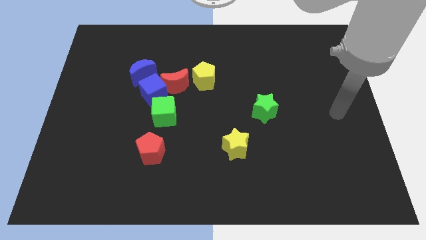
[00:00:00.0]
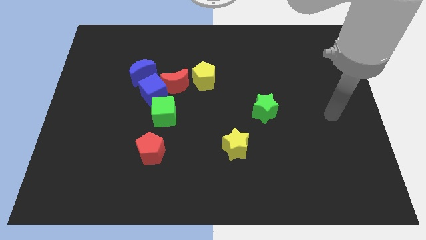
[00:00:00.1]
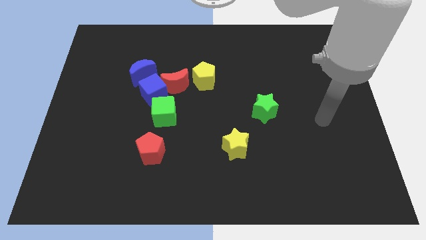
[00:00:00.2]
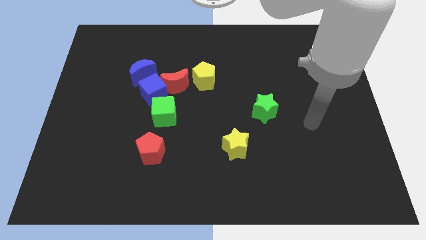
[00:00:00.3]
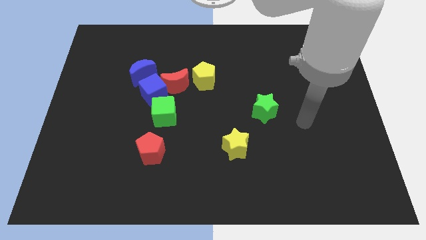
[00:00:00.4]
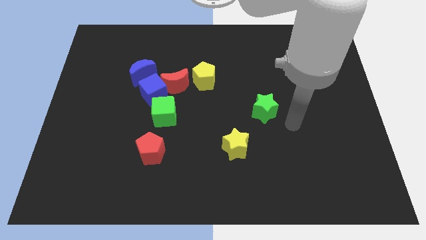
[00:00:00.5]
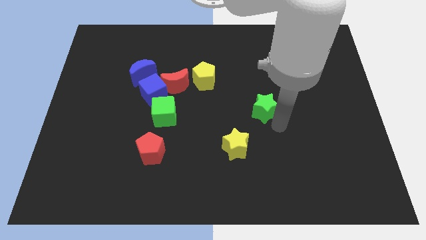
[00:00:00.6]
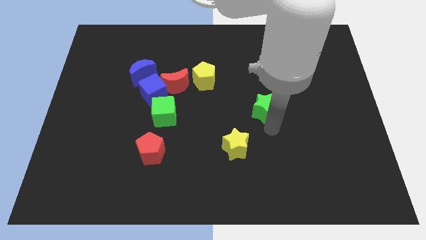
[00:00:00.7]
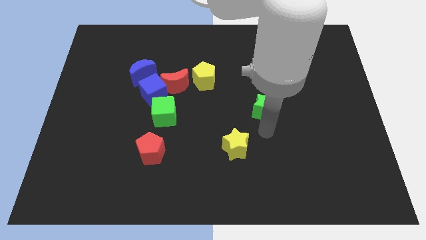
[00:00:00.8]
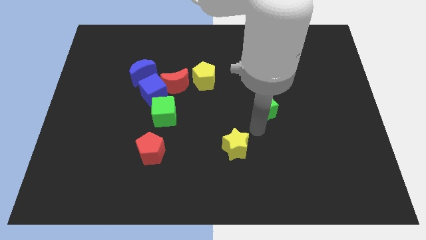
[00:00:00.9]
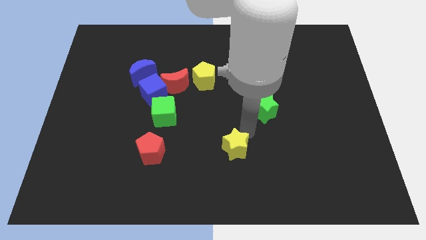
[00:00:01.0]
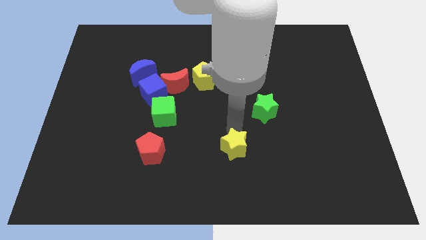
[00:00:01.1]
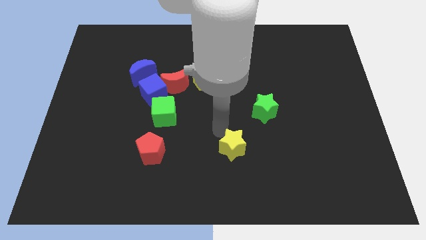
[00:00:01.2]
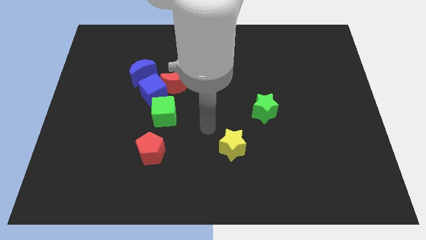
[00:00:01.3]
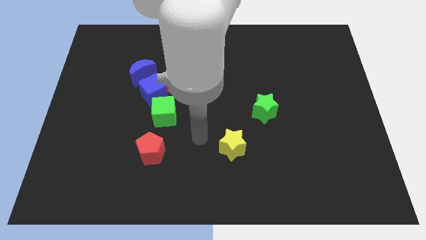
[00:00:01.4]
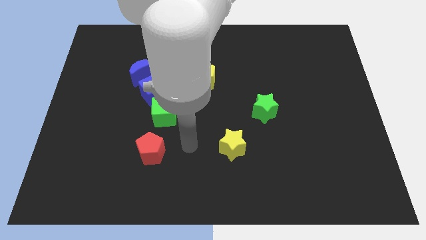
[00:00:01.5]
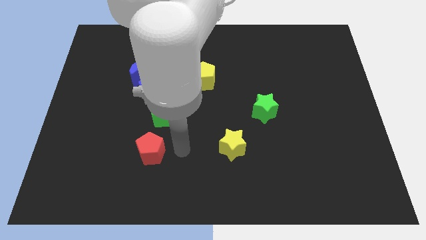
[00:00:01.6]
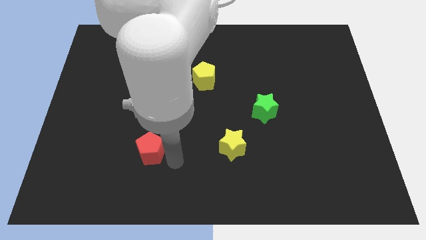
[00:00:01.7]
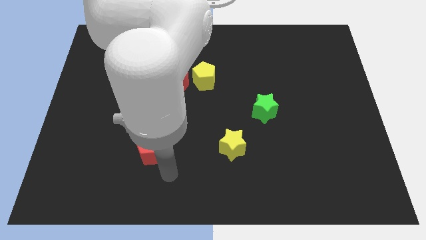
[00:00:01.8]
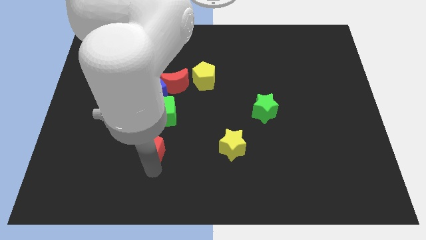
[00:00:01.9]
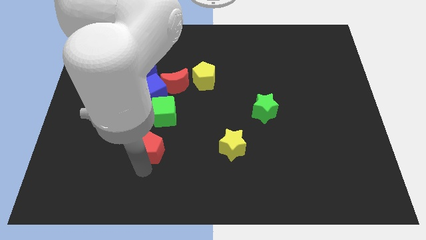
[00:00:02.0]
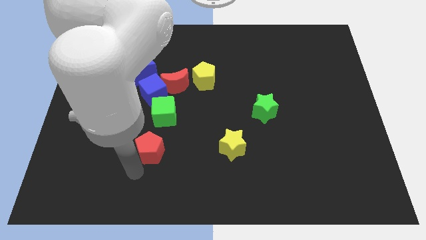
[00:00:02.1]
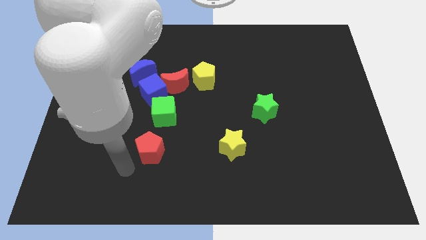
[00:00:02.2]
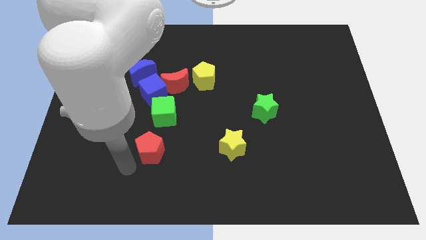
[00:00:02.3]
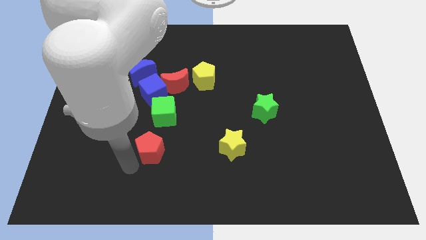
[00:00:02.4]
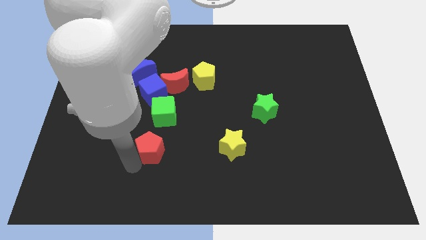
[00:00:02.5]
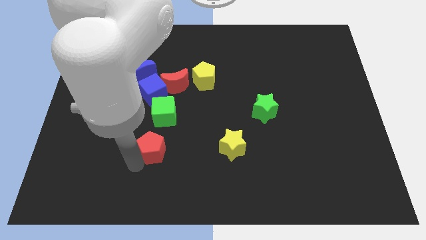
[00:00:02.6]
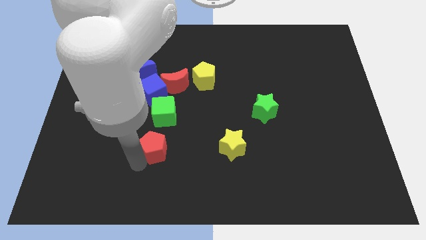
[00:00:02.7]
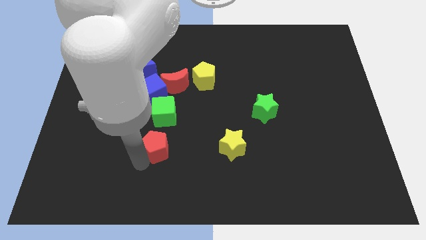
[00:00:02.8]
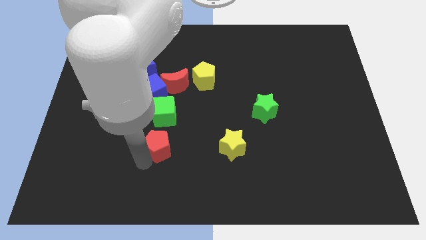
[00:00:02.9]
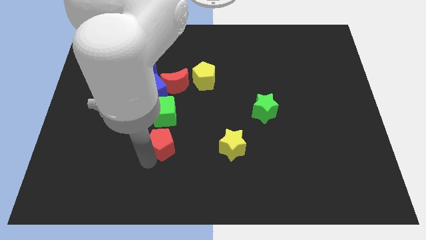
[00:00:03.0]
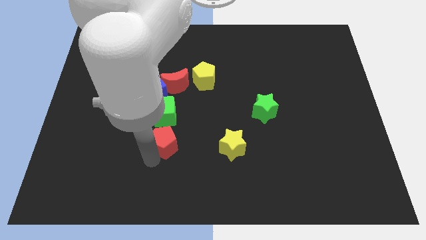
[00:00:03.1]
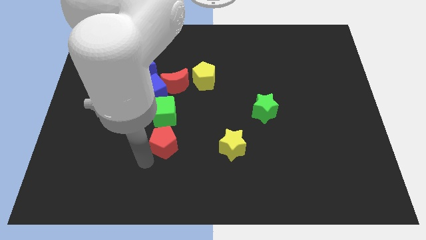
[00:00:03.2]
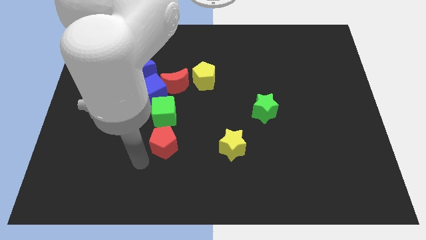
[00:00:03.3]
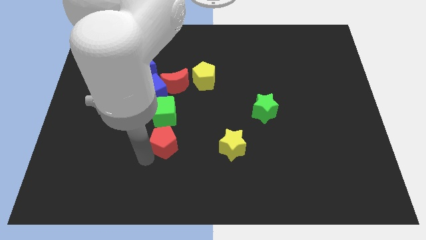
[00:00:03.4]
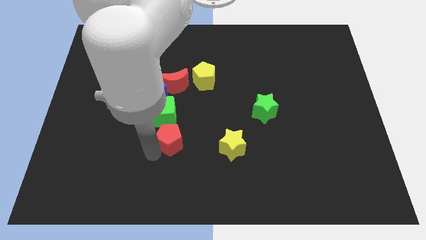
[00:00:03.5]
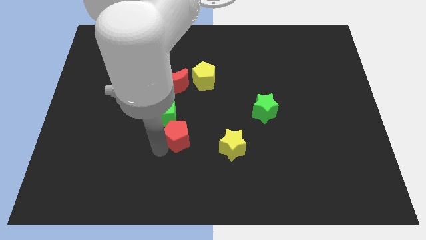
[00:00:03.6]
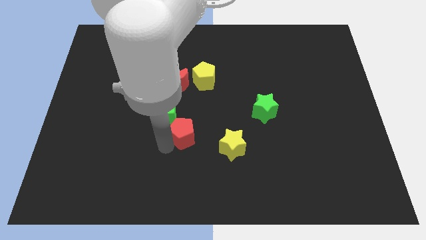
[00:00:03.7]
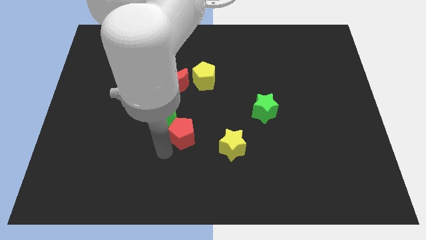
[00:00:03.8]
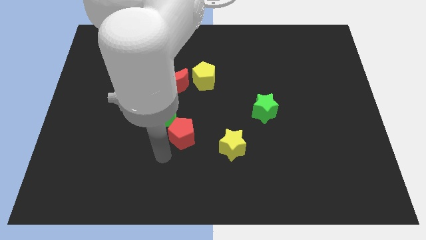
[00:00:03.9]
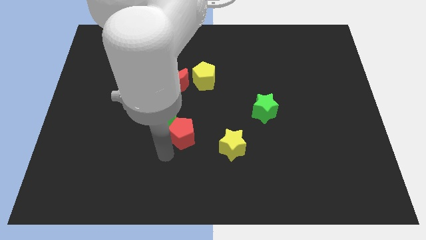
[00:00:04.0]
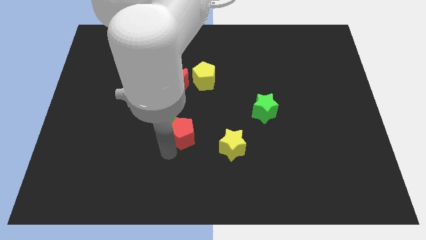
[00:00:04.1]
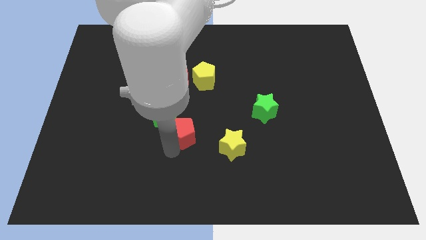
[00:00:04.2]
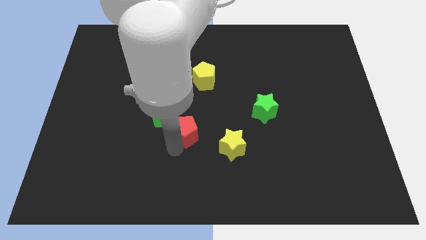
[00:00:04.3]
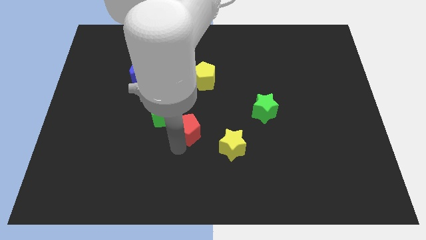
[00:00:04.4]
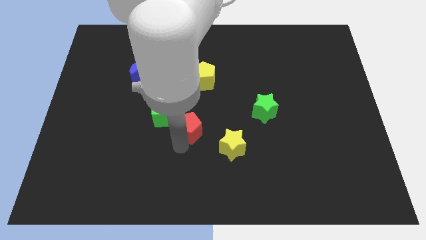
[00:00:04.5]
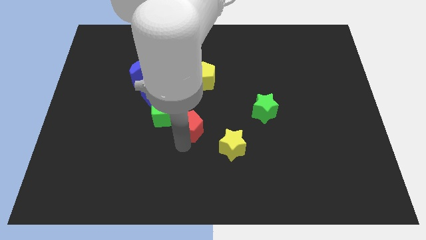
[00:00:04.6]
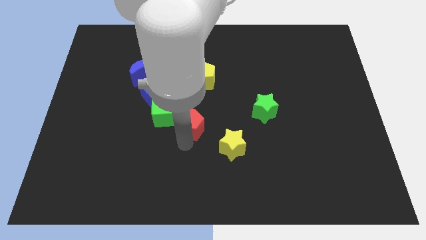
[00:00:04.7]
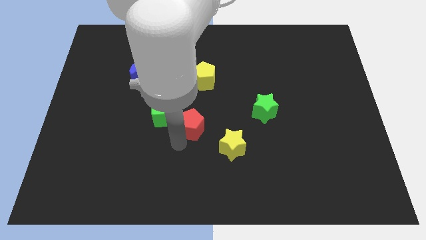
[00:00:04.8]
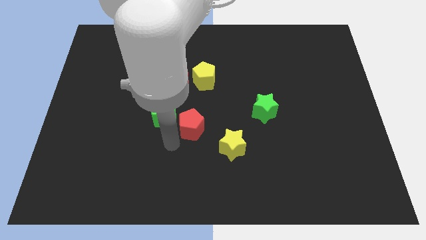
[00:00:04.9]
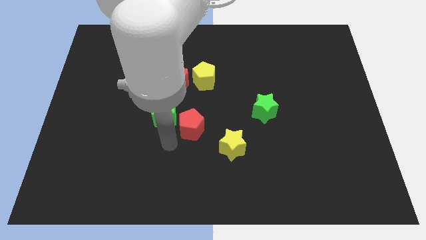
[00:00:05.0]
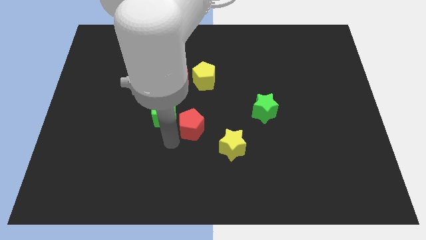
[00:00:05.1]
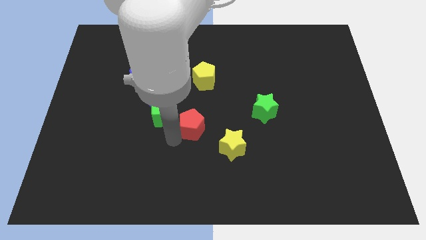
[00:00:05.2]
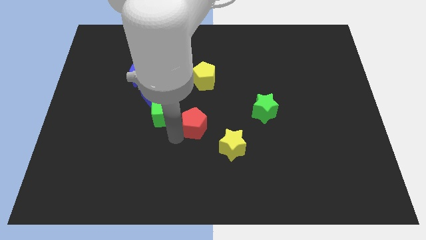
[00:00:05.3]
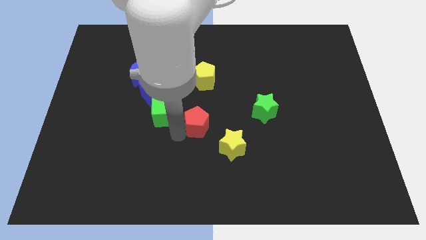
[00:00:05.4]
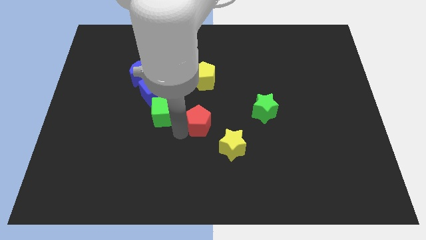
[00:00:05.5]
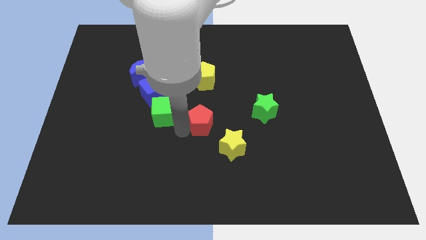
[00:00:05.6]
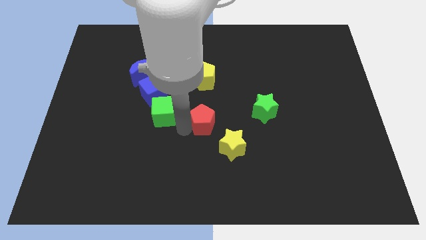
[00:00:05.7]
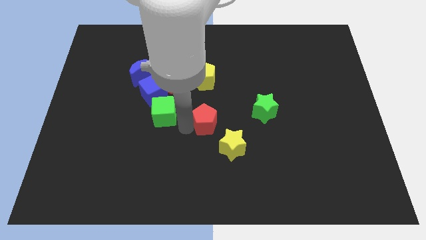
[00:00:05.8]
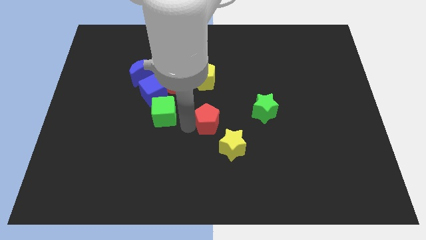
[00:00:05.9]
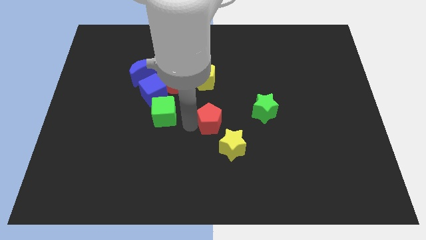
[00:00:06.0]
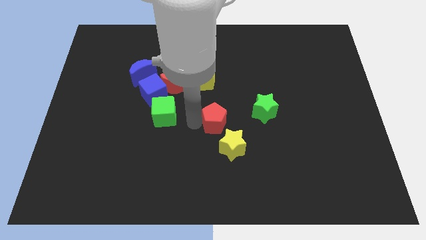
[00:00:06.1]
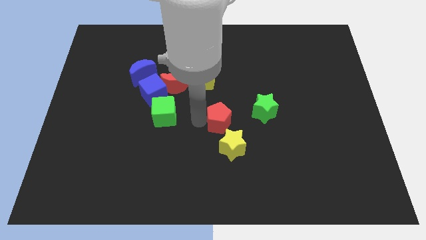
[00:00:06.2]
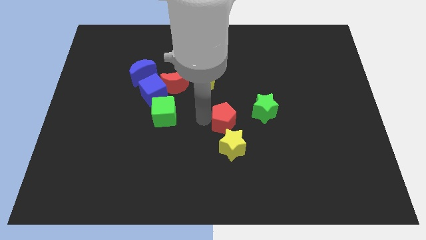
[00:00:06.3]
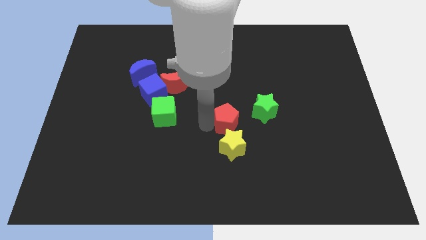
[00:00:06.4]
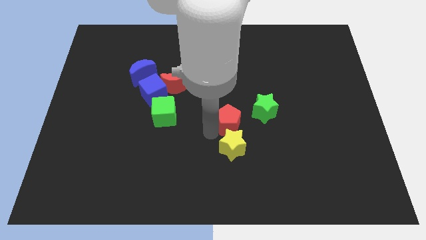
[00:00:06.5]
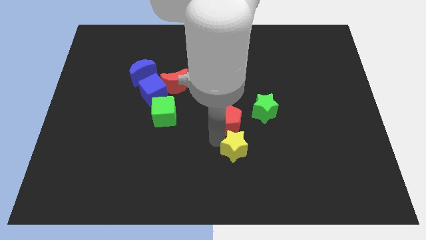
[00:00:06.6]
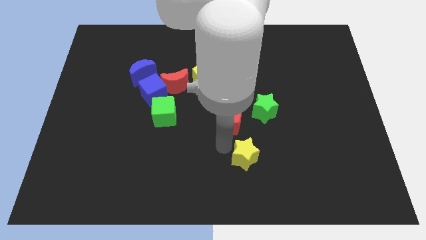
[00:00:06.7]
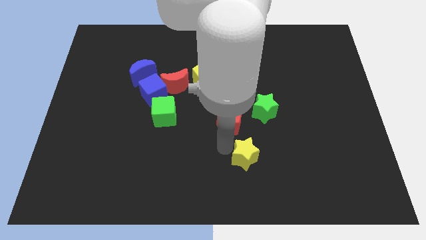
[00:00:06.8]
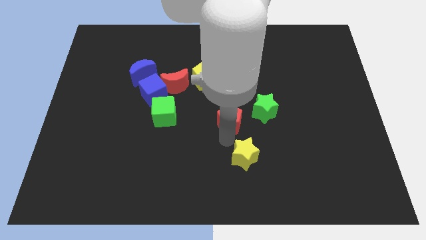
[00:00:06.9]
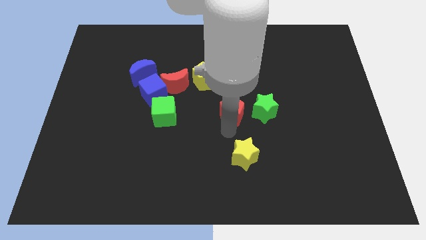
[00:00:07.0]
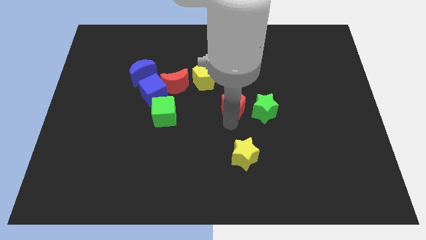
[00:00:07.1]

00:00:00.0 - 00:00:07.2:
slide the red pentagon up and then to the right

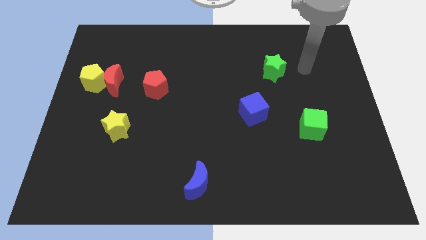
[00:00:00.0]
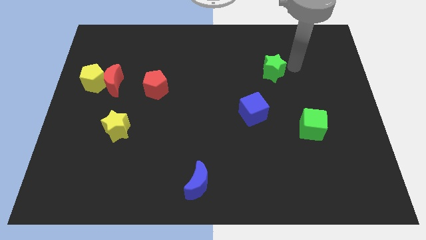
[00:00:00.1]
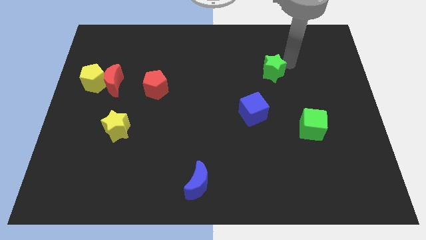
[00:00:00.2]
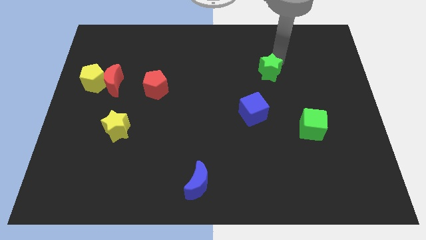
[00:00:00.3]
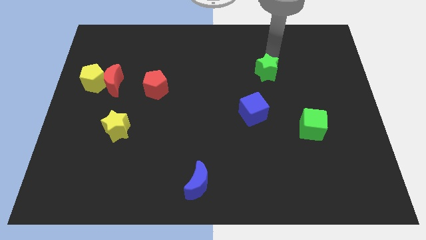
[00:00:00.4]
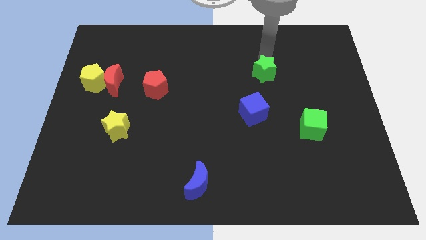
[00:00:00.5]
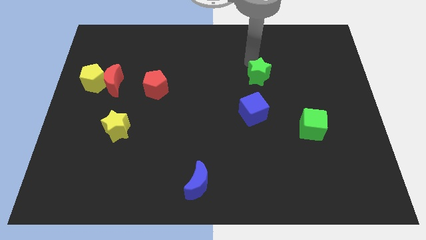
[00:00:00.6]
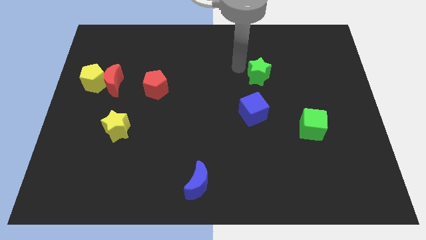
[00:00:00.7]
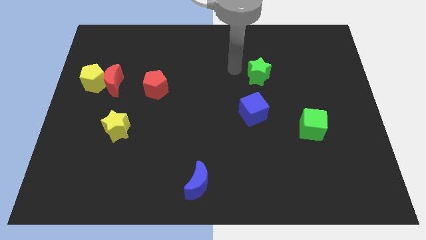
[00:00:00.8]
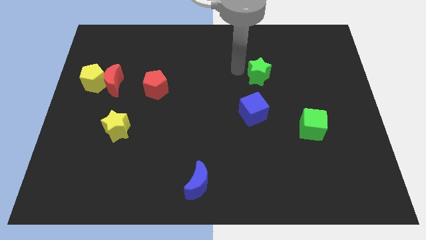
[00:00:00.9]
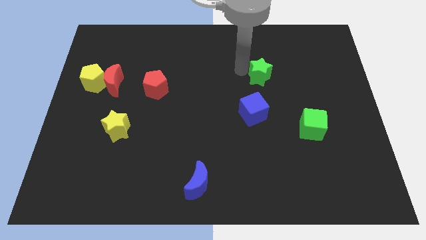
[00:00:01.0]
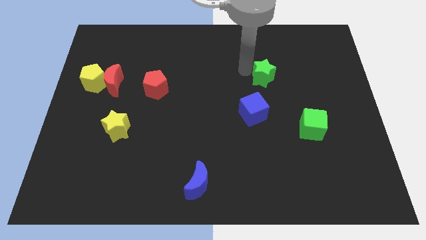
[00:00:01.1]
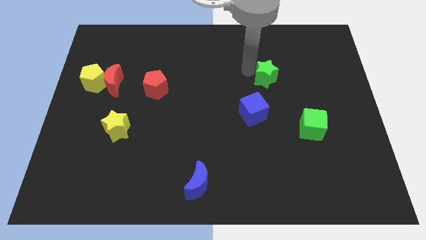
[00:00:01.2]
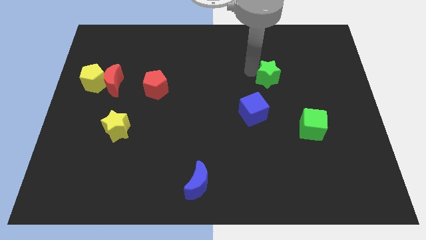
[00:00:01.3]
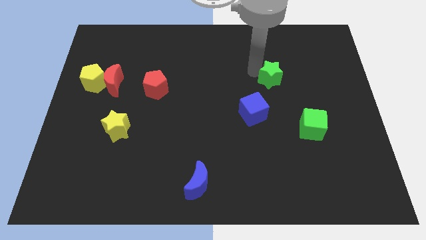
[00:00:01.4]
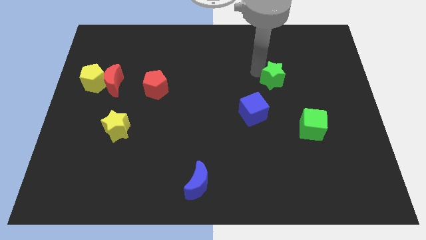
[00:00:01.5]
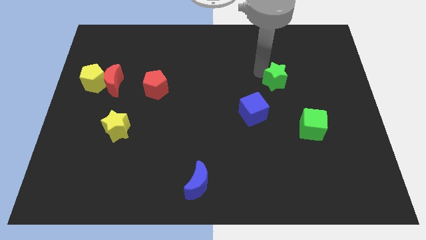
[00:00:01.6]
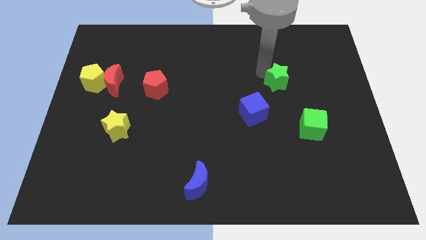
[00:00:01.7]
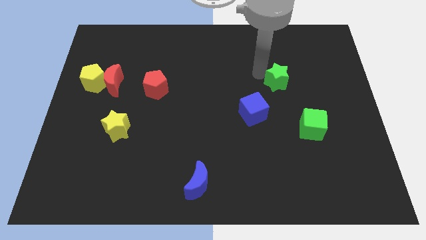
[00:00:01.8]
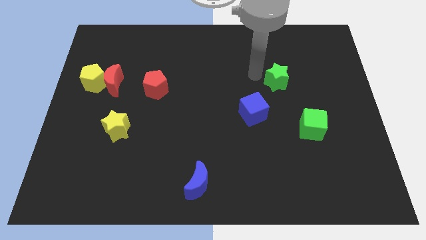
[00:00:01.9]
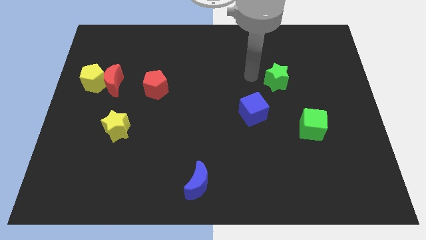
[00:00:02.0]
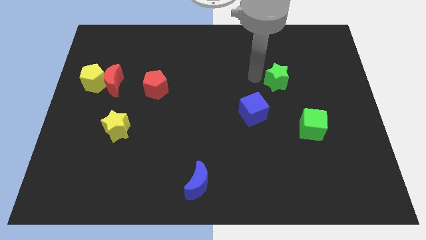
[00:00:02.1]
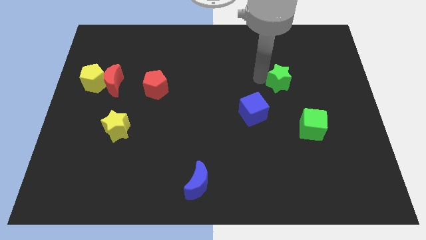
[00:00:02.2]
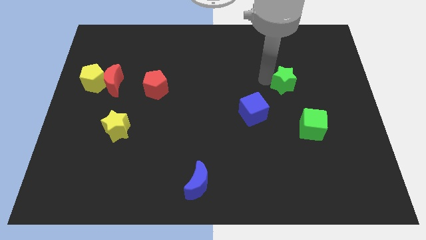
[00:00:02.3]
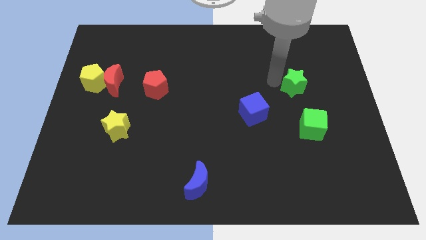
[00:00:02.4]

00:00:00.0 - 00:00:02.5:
slide the green star slightly diagonally down and to the right
